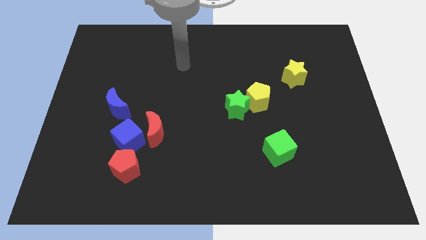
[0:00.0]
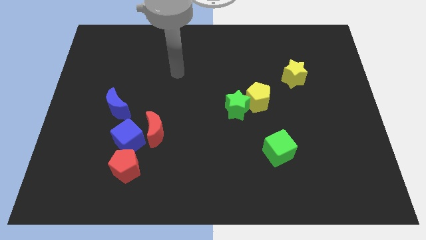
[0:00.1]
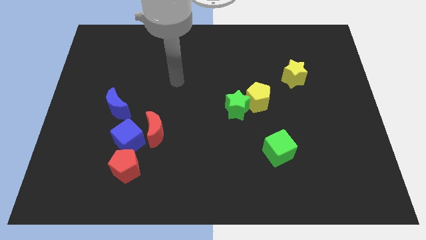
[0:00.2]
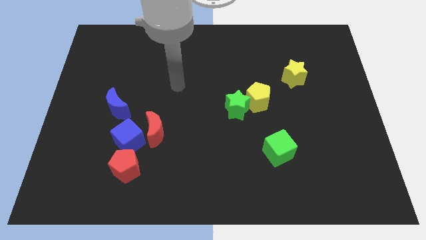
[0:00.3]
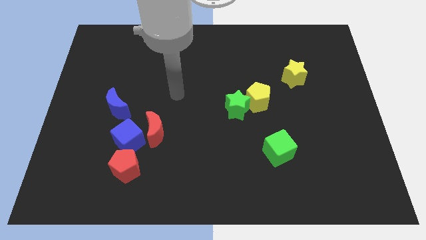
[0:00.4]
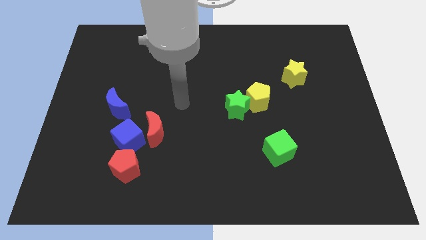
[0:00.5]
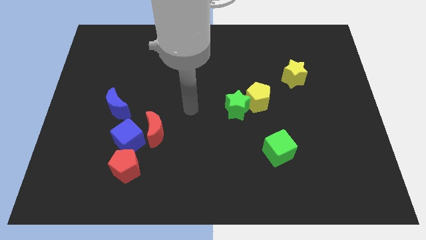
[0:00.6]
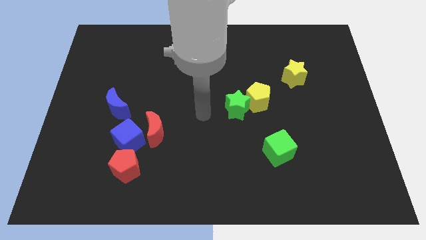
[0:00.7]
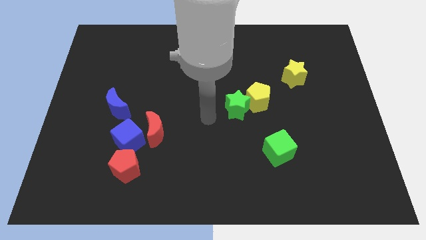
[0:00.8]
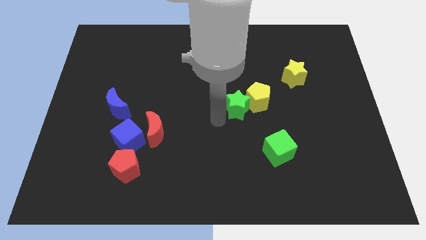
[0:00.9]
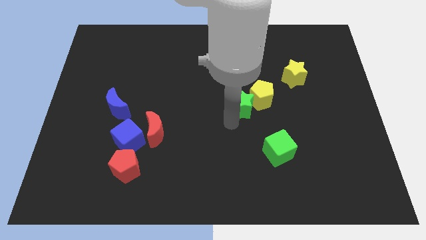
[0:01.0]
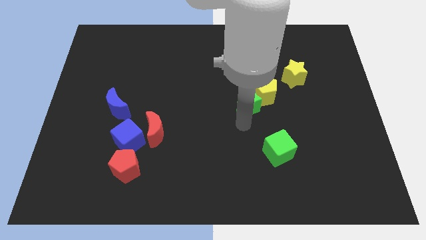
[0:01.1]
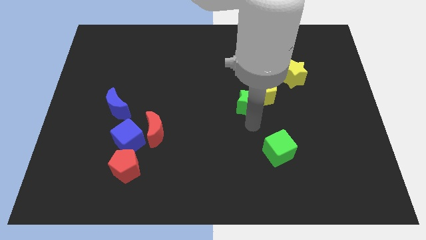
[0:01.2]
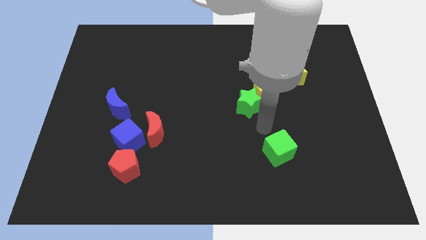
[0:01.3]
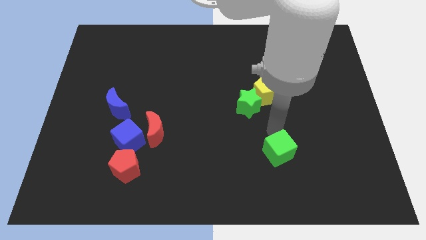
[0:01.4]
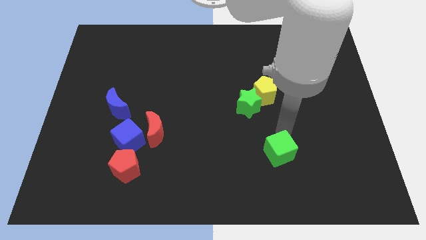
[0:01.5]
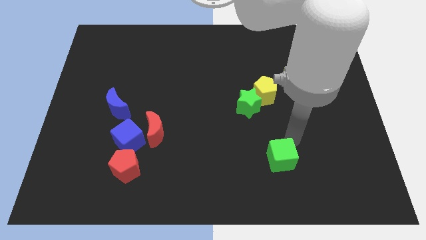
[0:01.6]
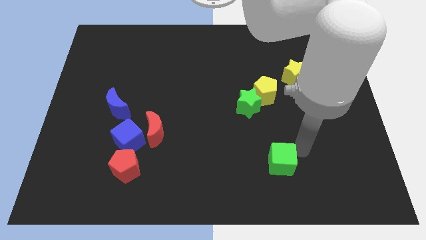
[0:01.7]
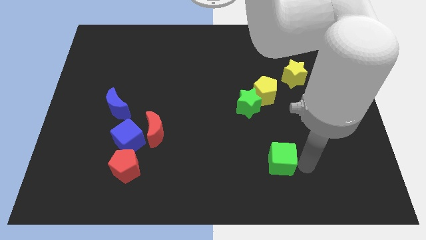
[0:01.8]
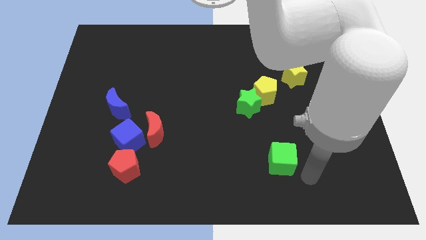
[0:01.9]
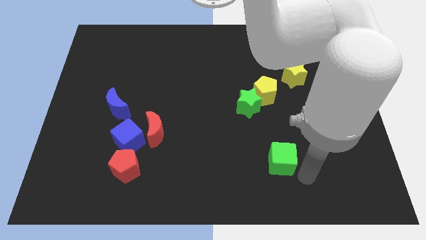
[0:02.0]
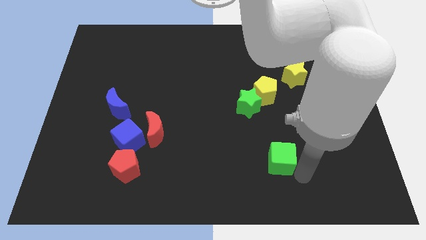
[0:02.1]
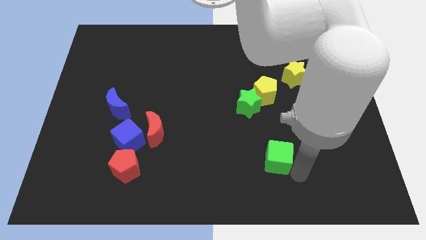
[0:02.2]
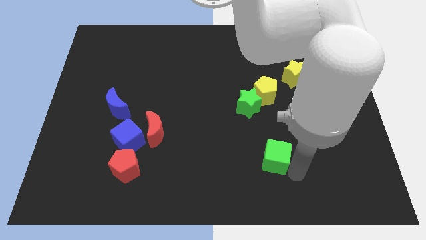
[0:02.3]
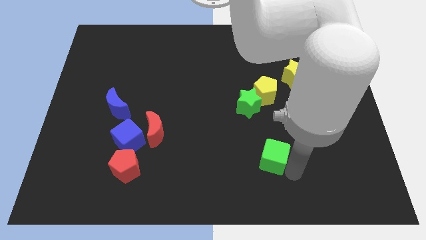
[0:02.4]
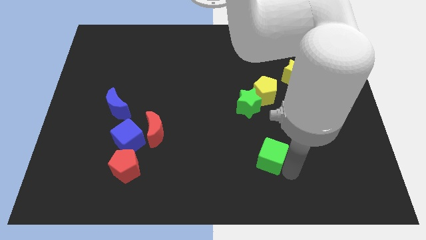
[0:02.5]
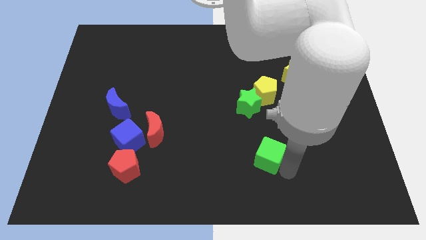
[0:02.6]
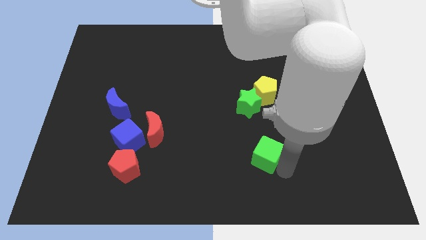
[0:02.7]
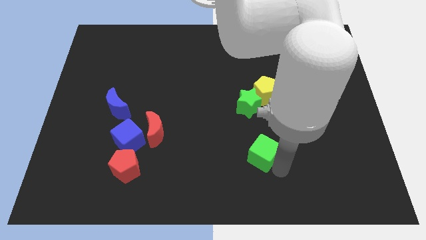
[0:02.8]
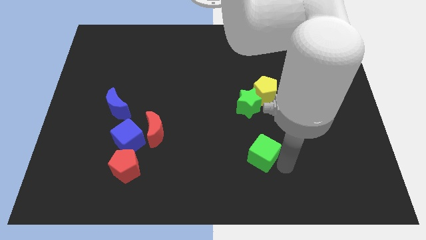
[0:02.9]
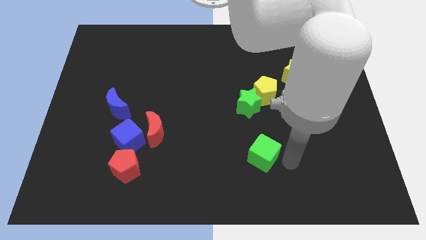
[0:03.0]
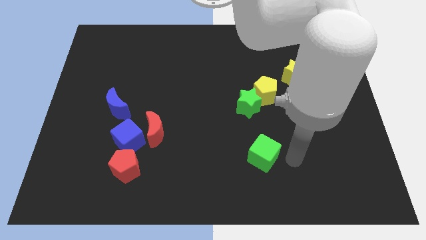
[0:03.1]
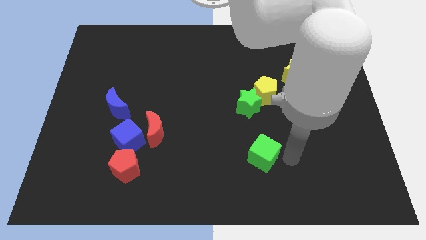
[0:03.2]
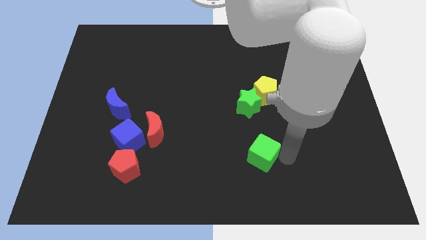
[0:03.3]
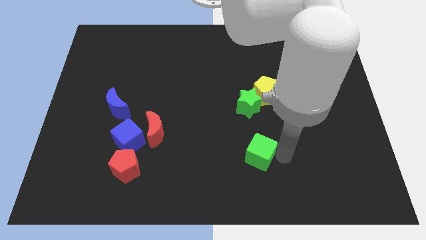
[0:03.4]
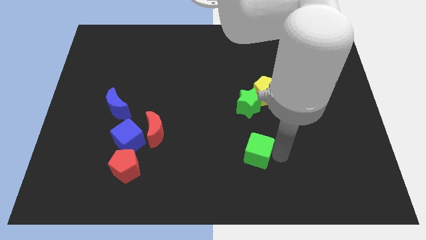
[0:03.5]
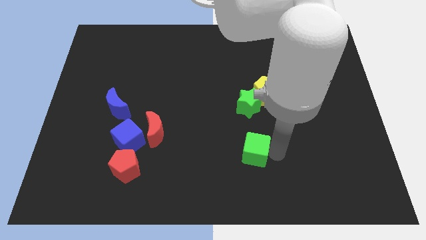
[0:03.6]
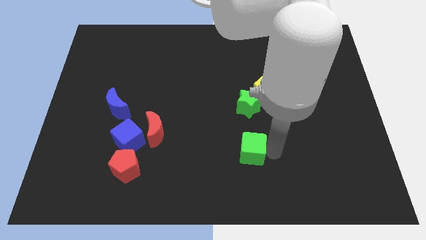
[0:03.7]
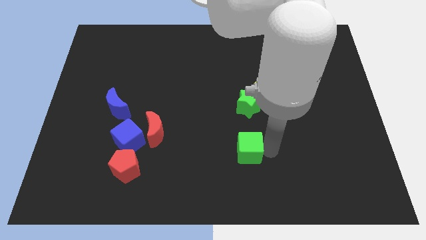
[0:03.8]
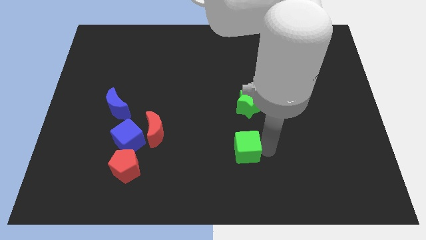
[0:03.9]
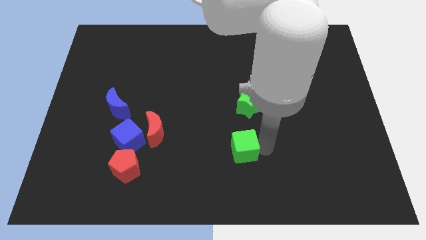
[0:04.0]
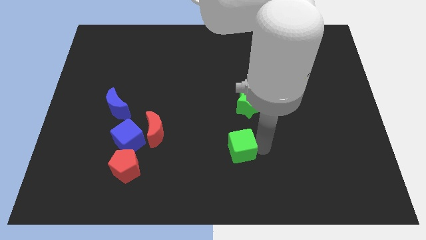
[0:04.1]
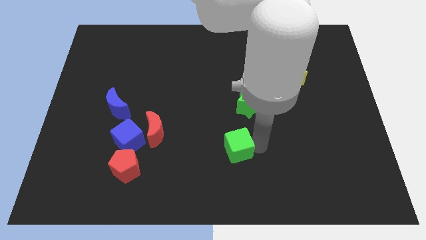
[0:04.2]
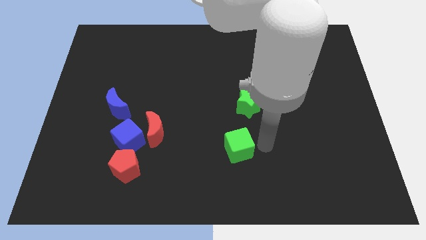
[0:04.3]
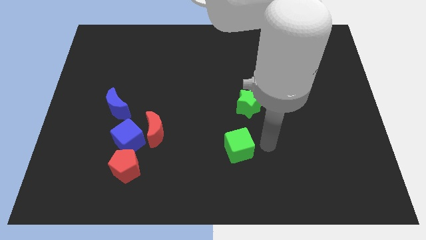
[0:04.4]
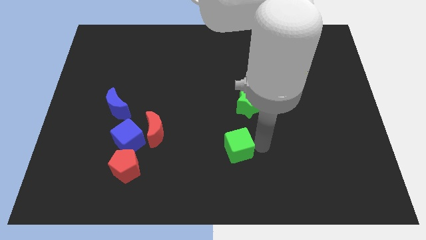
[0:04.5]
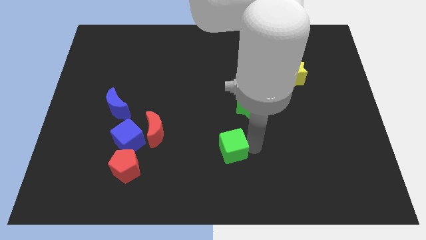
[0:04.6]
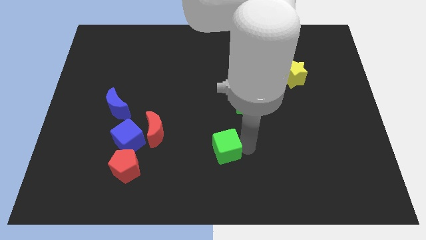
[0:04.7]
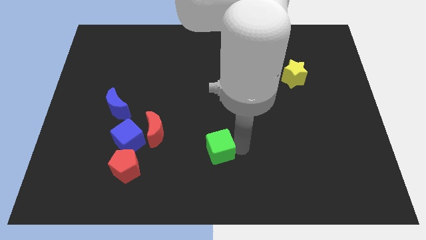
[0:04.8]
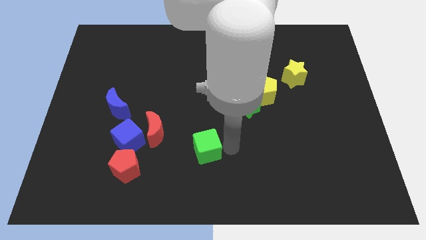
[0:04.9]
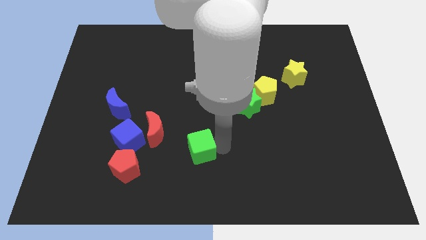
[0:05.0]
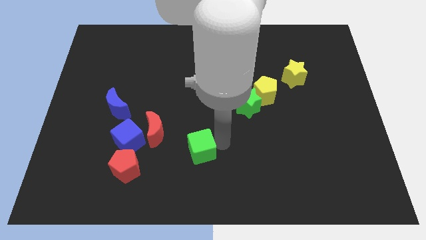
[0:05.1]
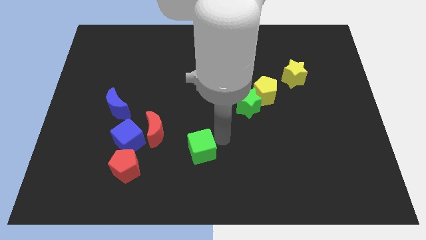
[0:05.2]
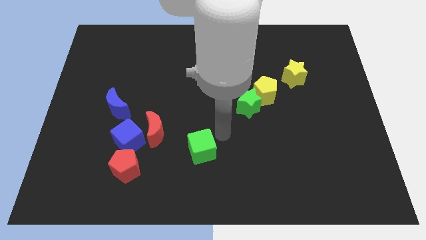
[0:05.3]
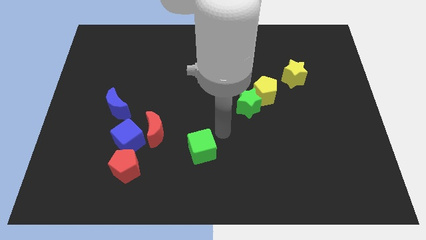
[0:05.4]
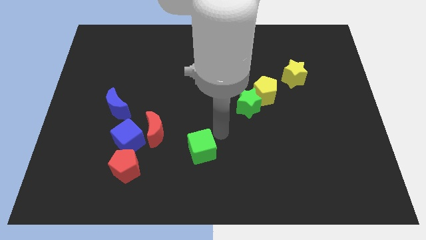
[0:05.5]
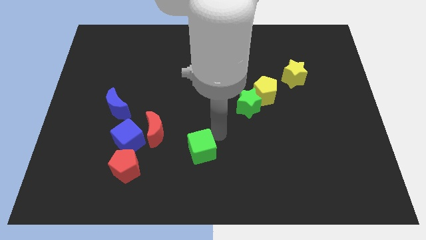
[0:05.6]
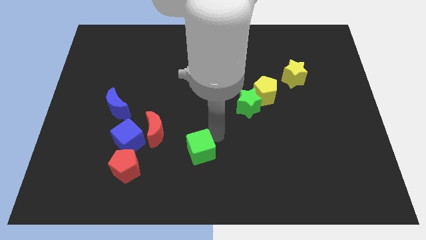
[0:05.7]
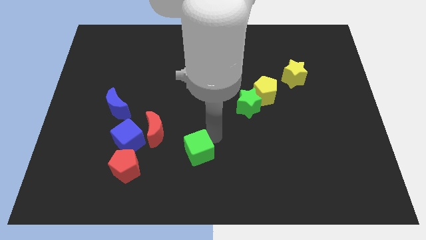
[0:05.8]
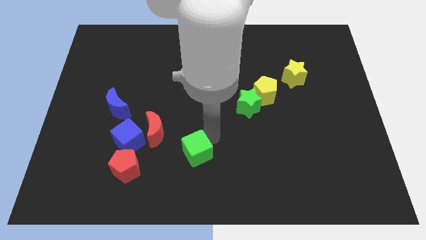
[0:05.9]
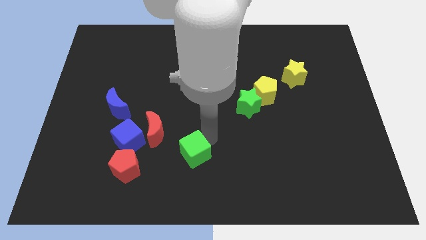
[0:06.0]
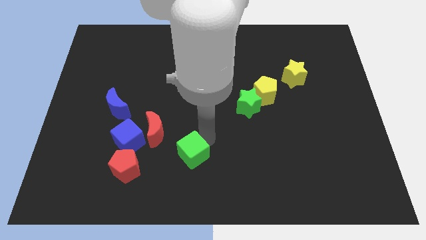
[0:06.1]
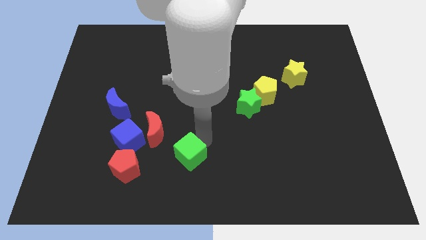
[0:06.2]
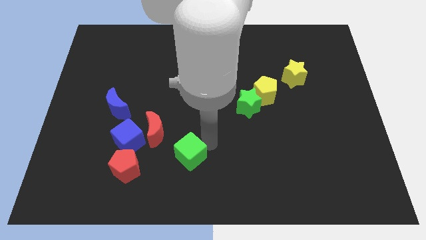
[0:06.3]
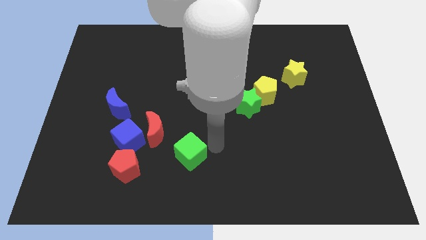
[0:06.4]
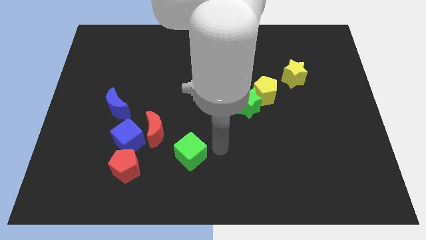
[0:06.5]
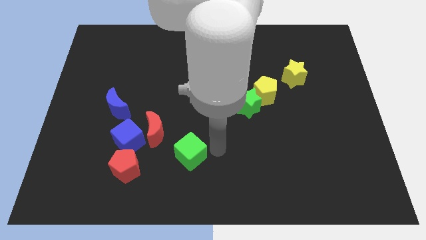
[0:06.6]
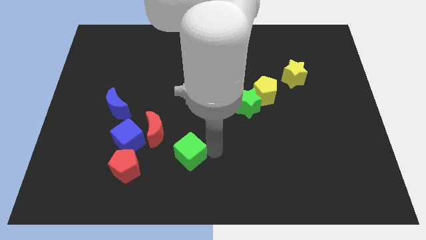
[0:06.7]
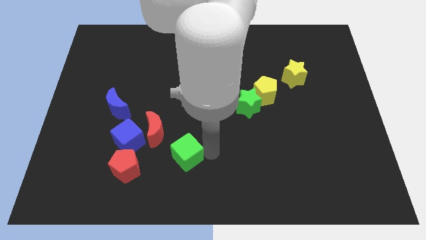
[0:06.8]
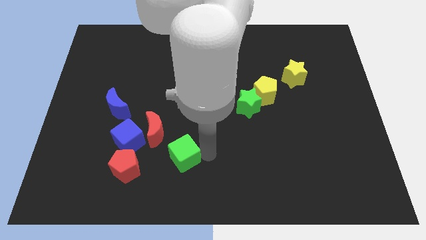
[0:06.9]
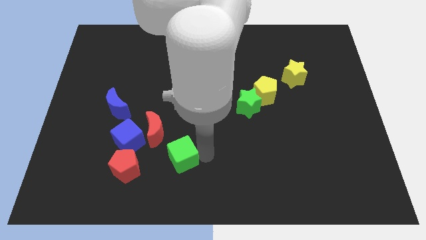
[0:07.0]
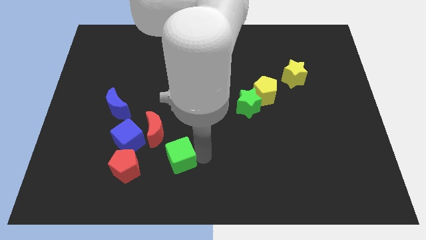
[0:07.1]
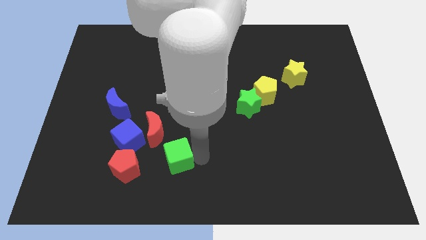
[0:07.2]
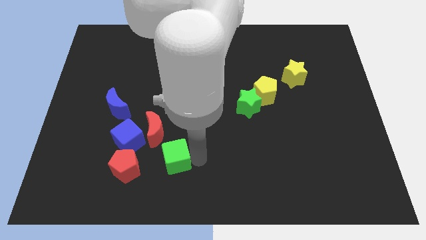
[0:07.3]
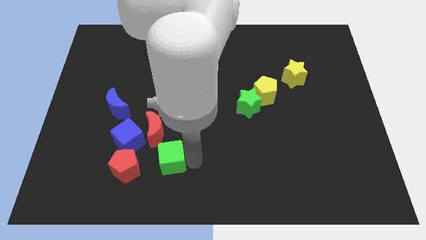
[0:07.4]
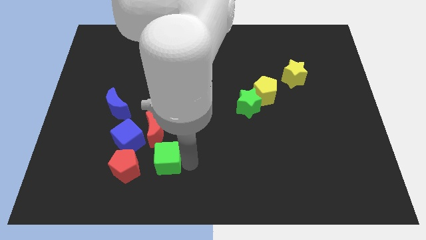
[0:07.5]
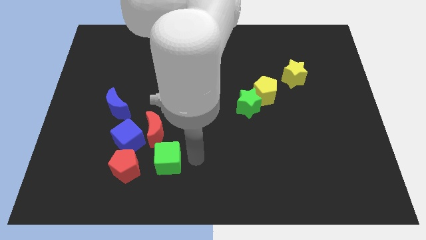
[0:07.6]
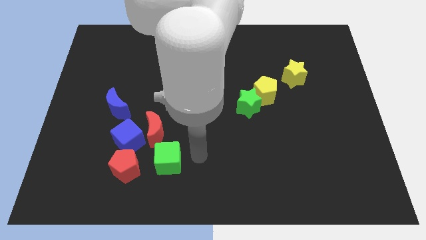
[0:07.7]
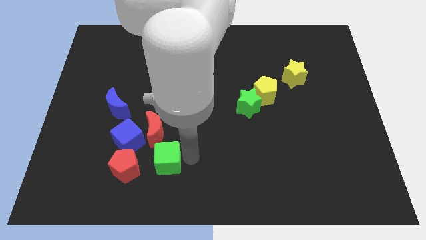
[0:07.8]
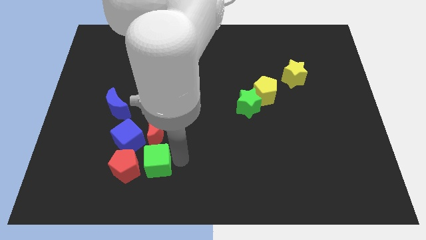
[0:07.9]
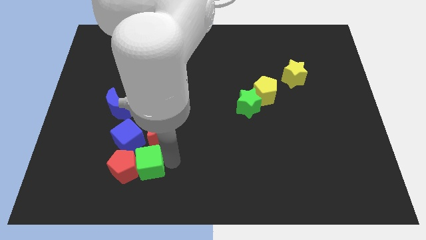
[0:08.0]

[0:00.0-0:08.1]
slide the green cube to the red pentagon
